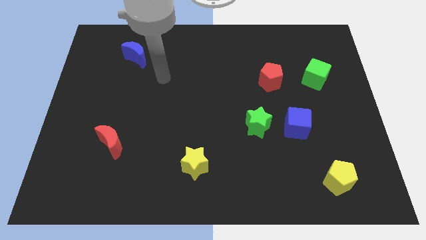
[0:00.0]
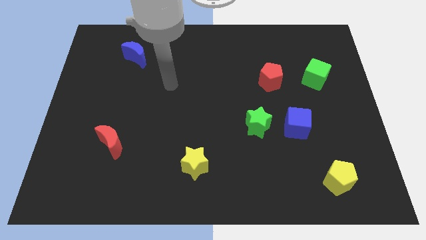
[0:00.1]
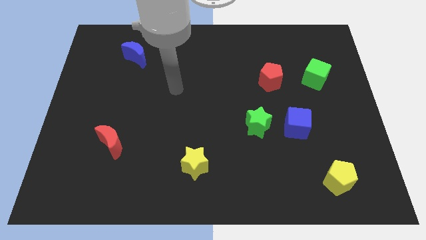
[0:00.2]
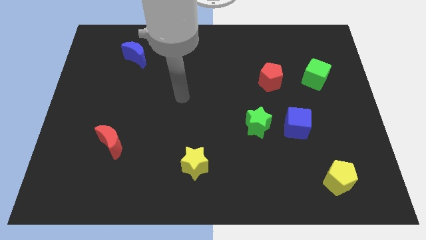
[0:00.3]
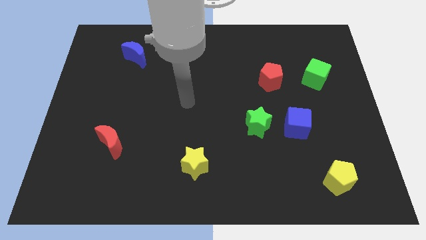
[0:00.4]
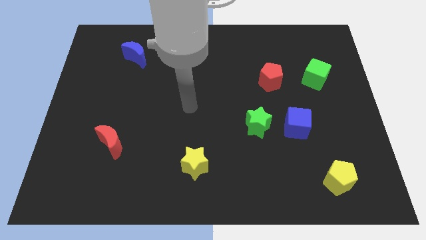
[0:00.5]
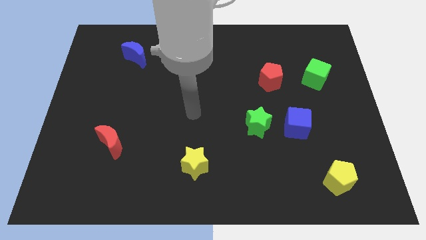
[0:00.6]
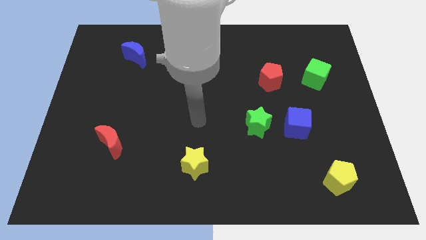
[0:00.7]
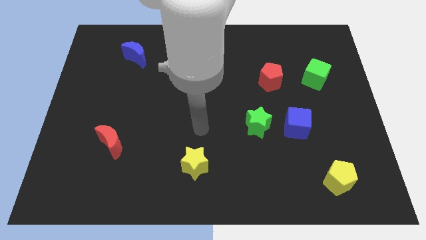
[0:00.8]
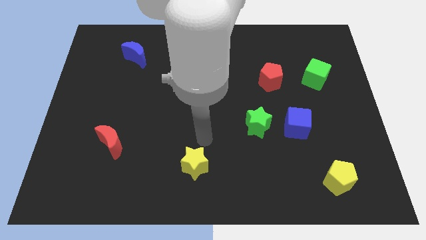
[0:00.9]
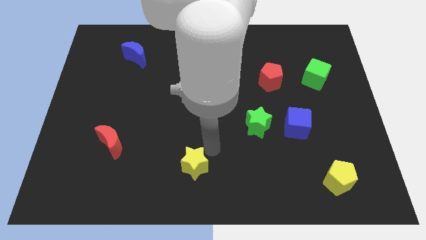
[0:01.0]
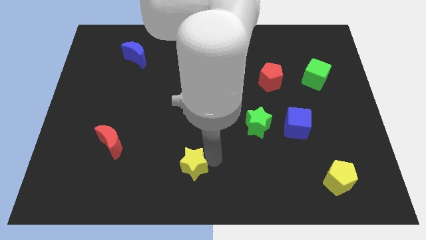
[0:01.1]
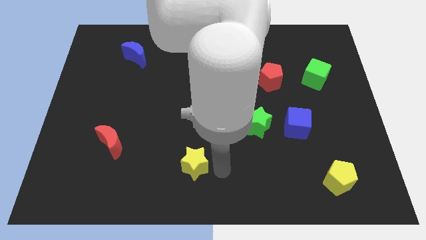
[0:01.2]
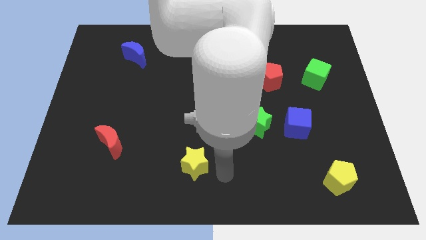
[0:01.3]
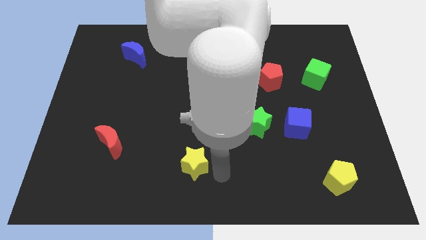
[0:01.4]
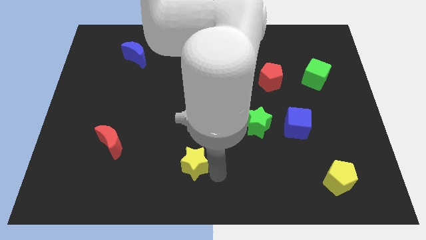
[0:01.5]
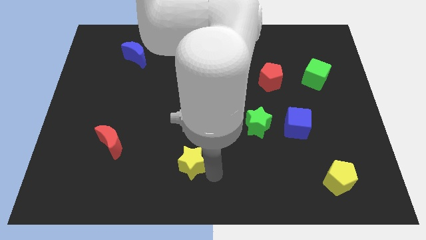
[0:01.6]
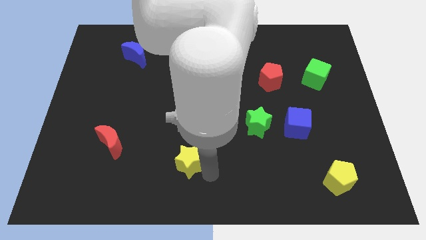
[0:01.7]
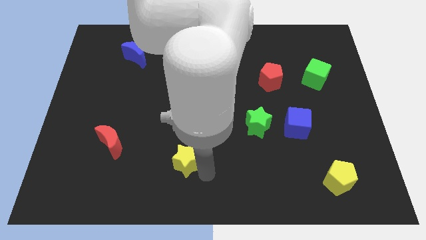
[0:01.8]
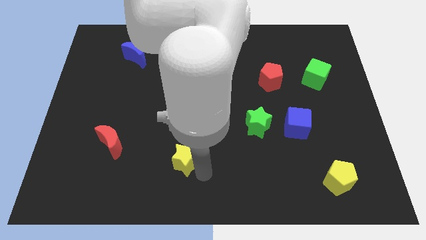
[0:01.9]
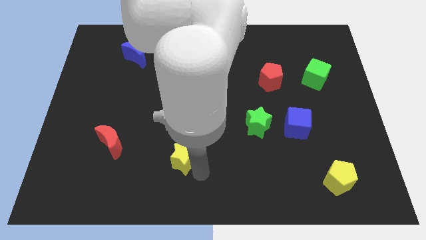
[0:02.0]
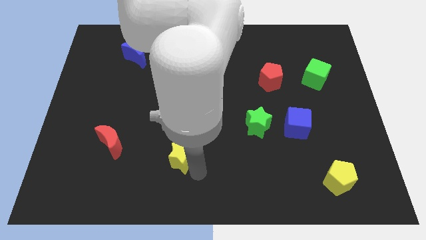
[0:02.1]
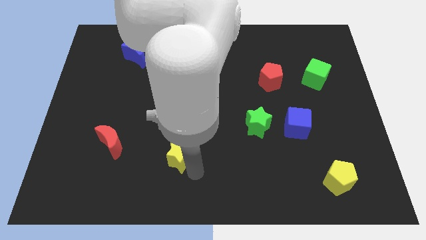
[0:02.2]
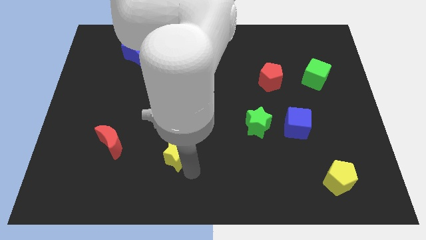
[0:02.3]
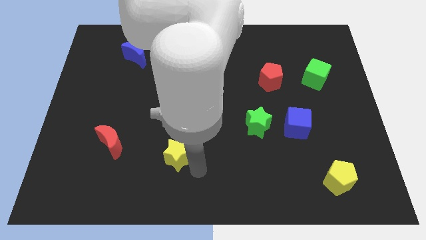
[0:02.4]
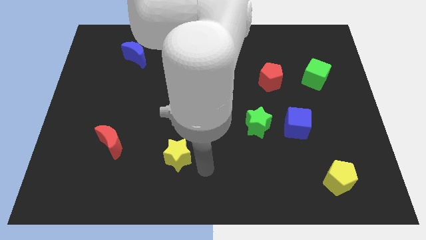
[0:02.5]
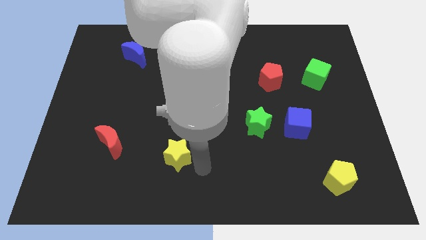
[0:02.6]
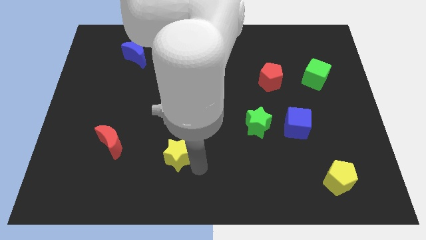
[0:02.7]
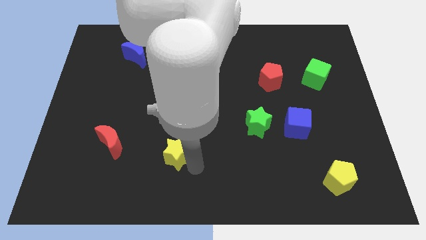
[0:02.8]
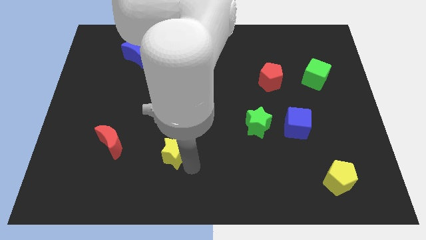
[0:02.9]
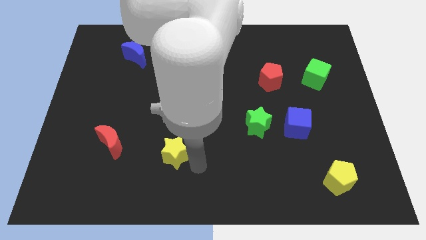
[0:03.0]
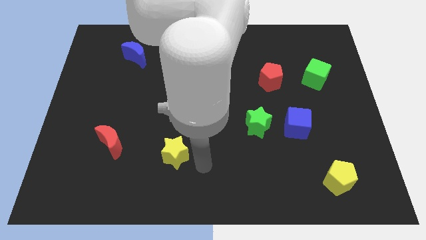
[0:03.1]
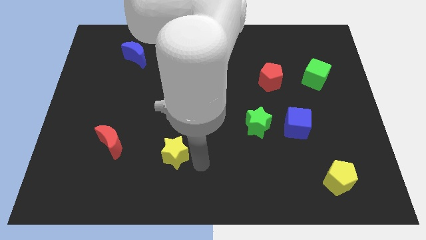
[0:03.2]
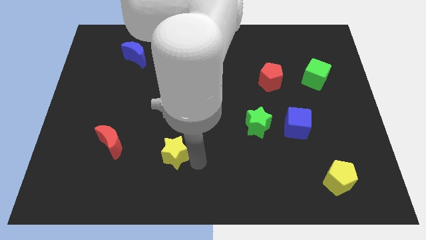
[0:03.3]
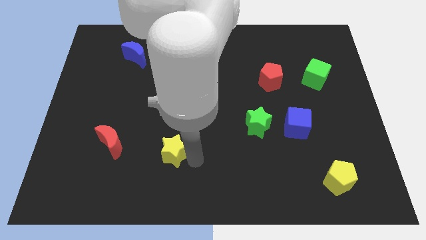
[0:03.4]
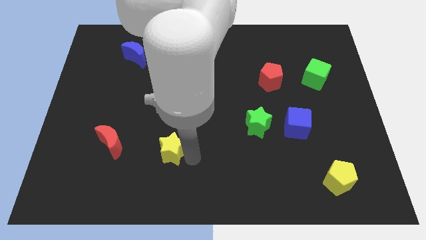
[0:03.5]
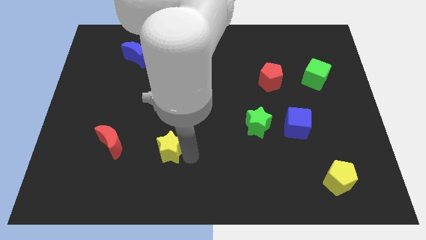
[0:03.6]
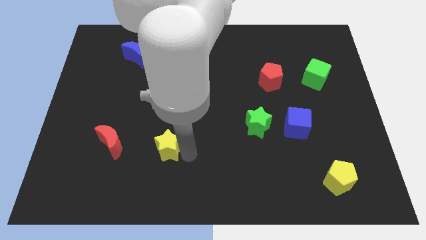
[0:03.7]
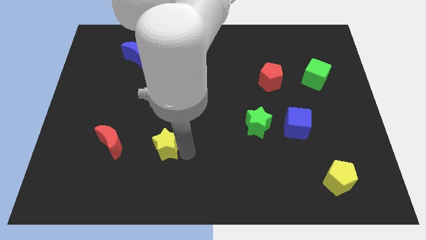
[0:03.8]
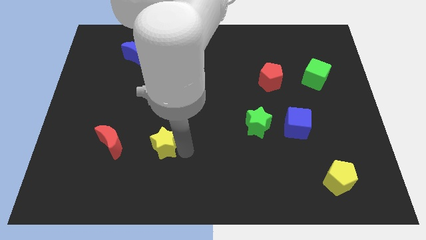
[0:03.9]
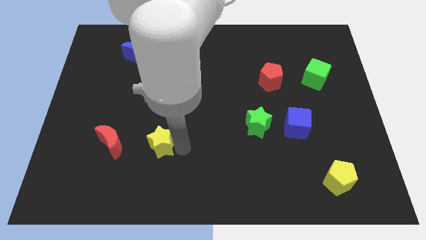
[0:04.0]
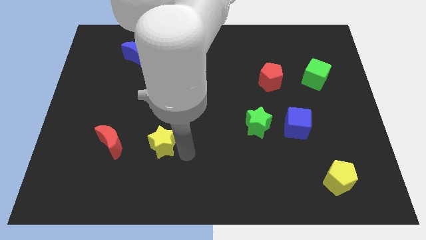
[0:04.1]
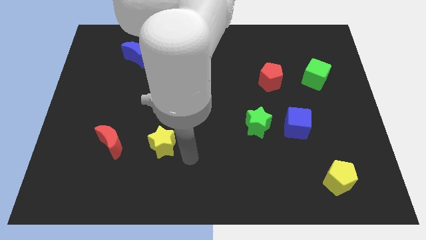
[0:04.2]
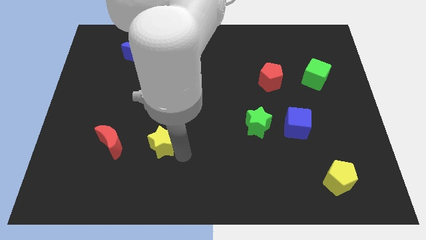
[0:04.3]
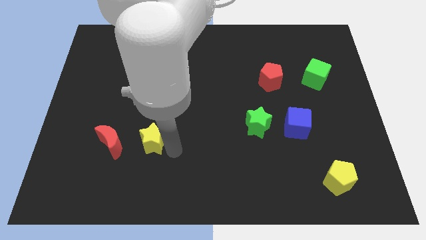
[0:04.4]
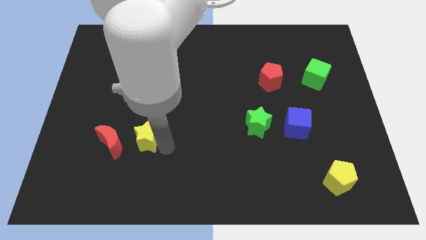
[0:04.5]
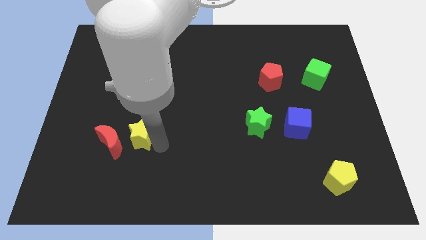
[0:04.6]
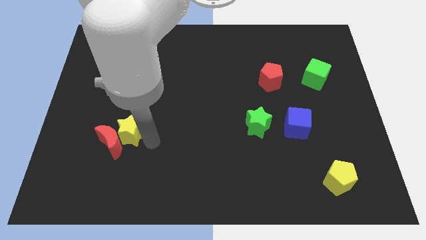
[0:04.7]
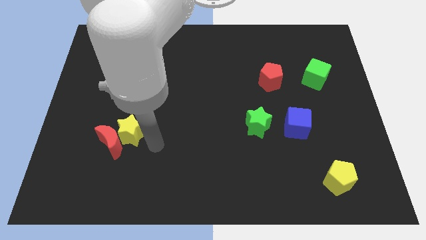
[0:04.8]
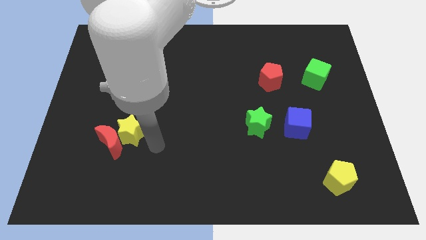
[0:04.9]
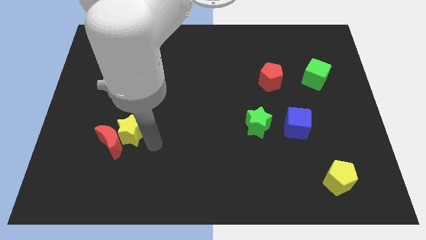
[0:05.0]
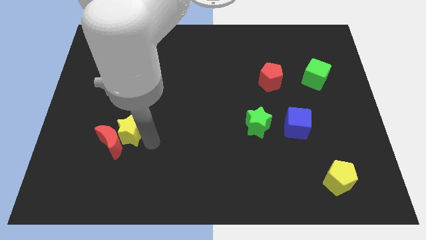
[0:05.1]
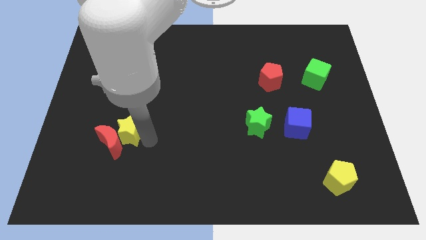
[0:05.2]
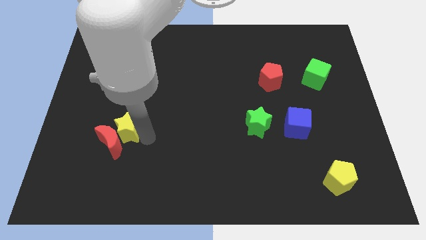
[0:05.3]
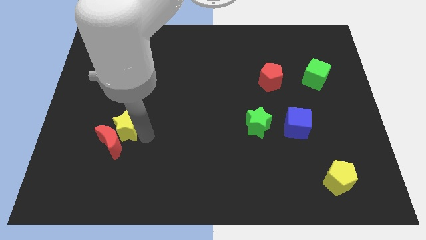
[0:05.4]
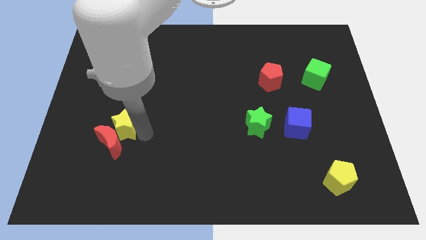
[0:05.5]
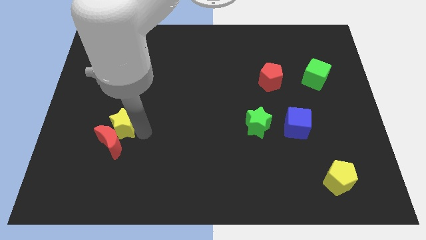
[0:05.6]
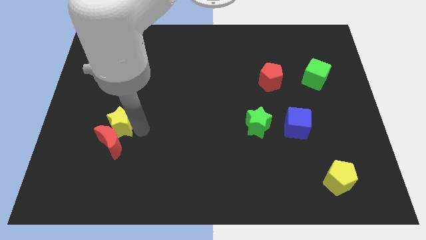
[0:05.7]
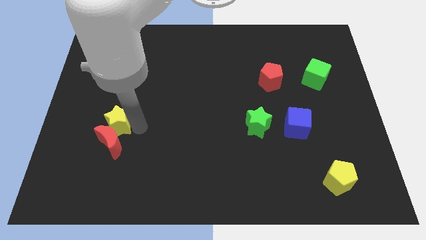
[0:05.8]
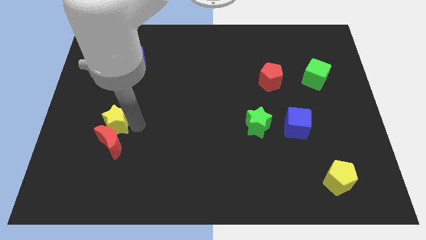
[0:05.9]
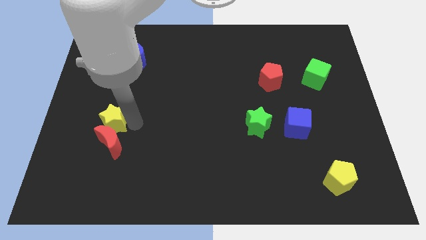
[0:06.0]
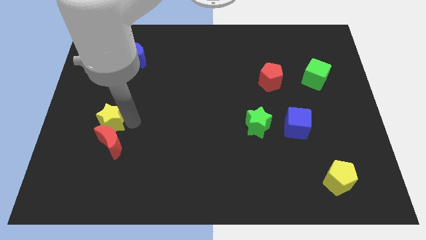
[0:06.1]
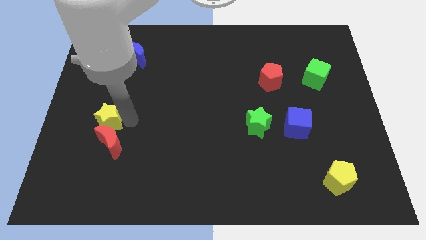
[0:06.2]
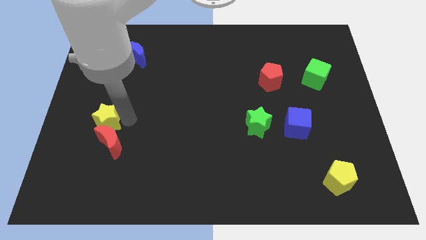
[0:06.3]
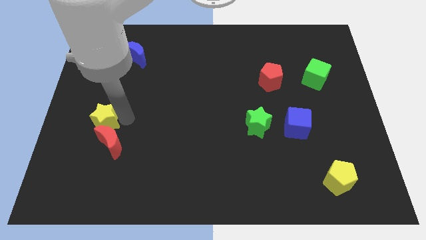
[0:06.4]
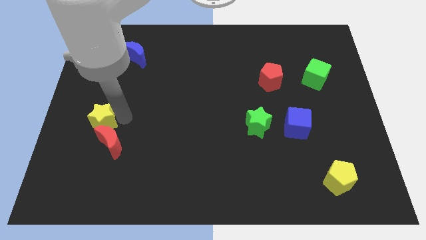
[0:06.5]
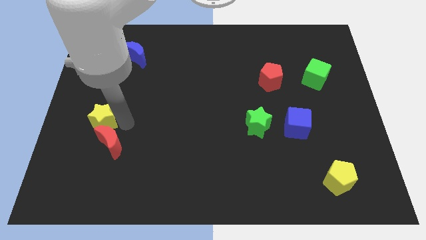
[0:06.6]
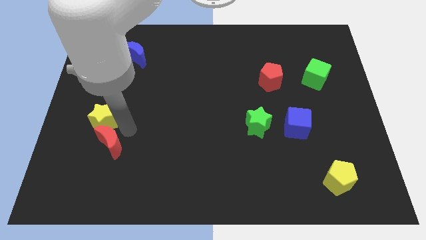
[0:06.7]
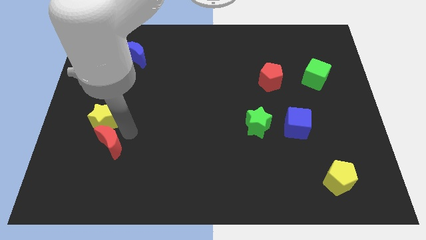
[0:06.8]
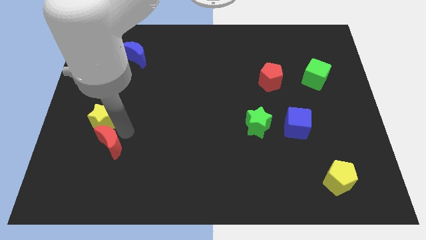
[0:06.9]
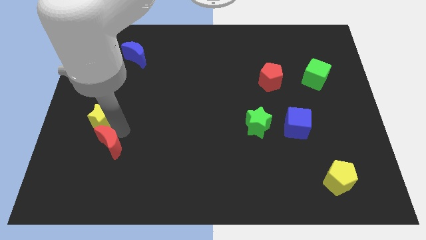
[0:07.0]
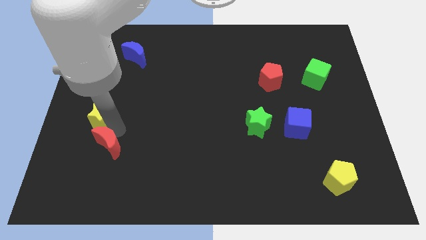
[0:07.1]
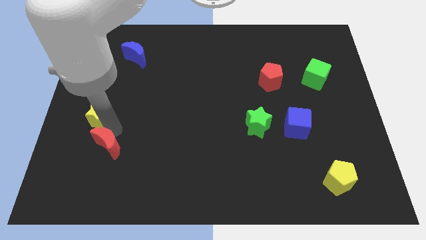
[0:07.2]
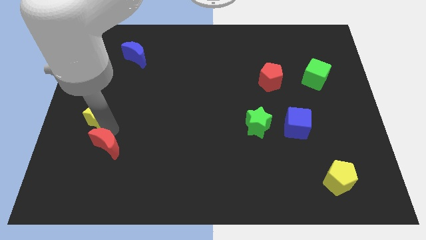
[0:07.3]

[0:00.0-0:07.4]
push the yellow star to the left side of the board

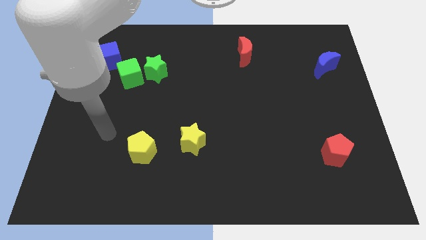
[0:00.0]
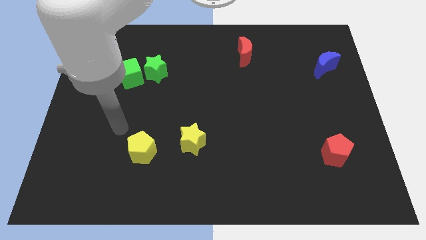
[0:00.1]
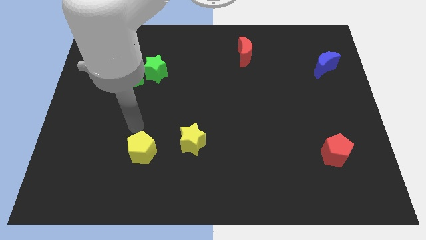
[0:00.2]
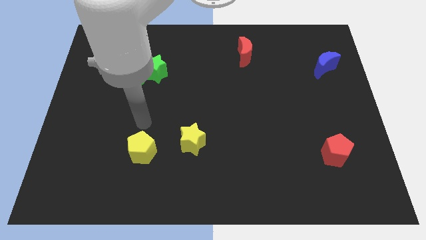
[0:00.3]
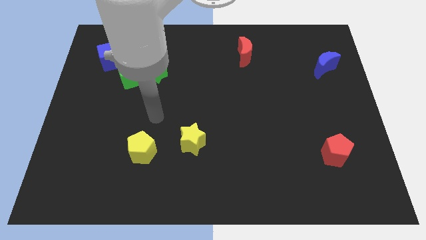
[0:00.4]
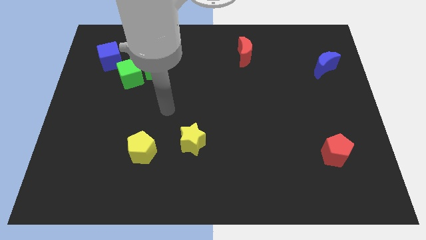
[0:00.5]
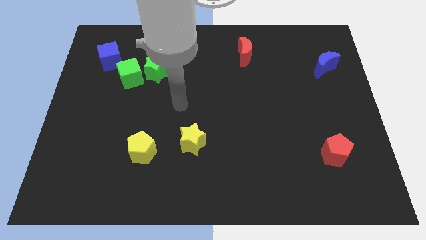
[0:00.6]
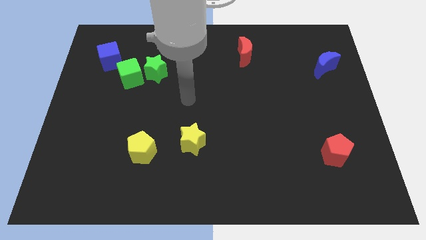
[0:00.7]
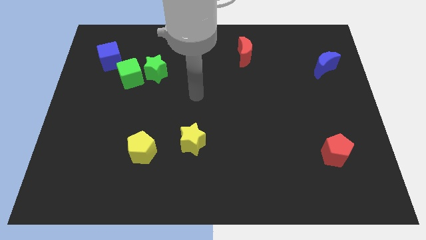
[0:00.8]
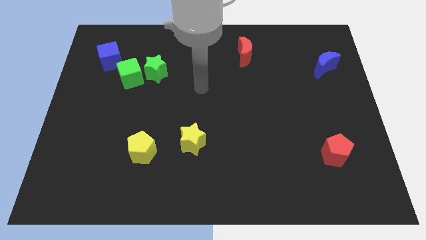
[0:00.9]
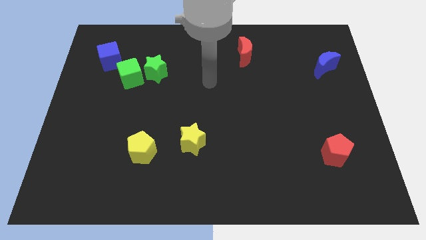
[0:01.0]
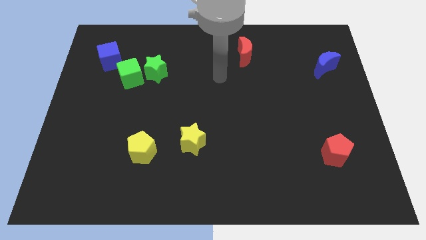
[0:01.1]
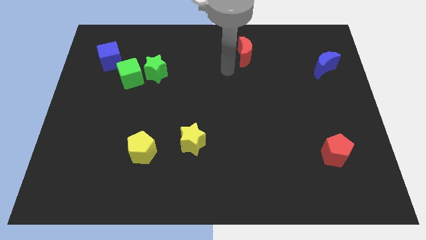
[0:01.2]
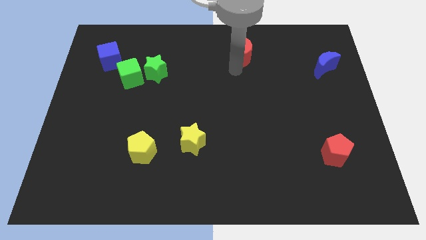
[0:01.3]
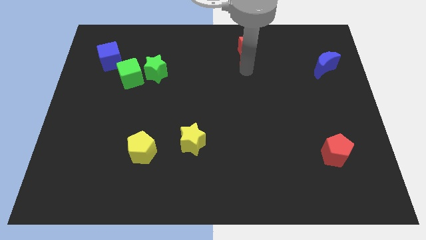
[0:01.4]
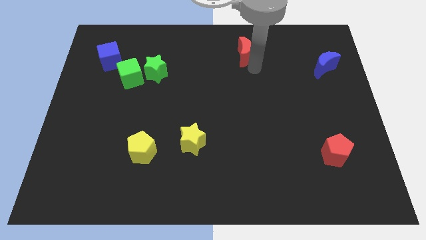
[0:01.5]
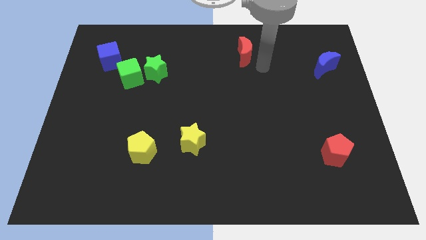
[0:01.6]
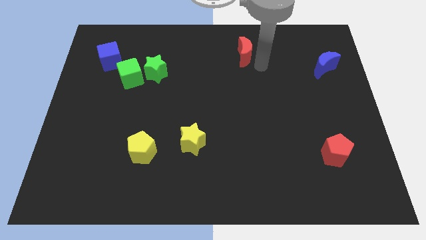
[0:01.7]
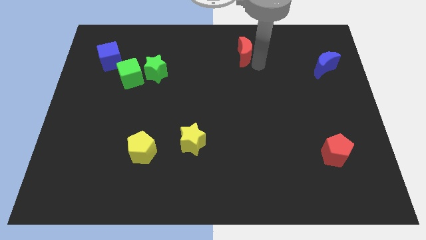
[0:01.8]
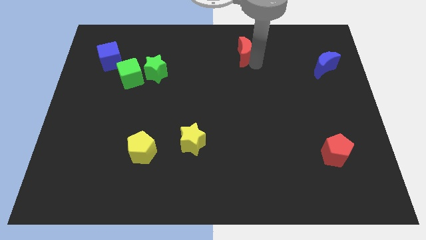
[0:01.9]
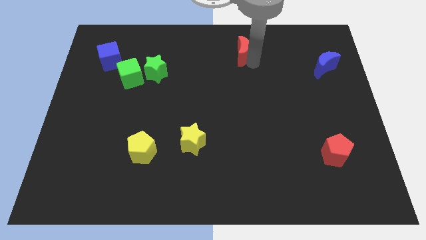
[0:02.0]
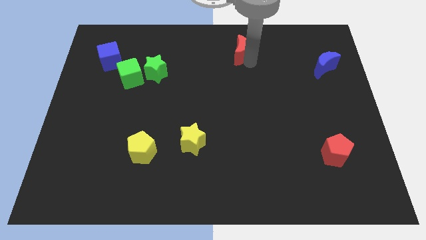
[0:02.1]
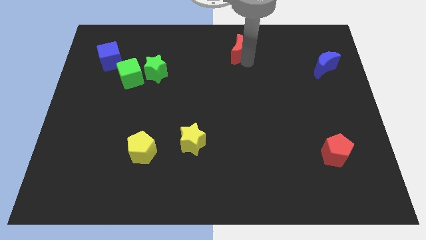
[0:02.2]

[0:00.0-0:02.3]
slide the red moon to the top
